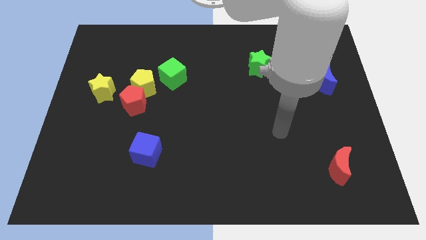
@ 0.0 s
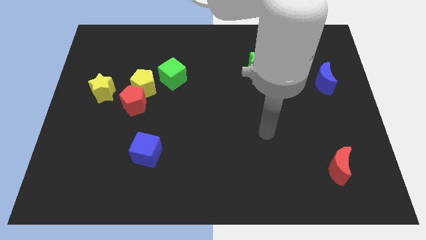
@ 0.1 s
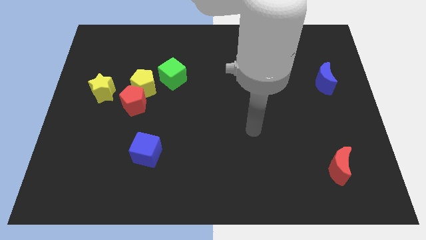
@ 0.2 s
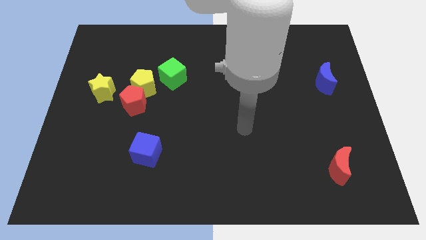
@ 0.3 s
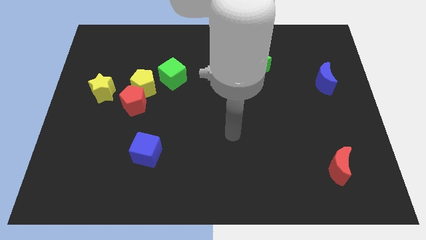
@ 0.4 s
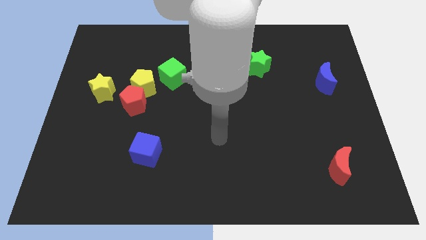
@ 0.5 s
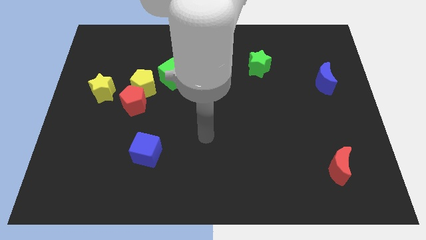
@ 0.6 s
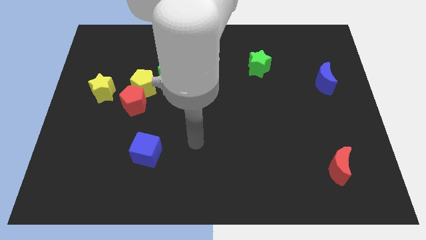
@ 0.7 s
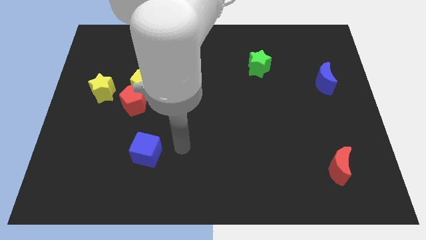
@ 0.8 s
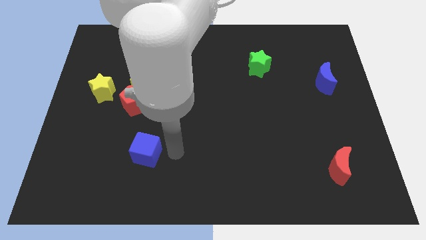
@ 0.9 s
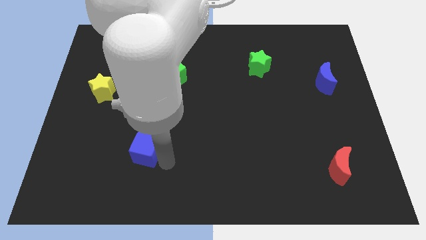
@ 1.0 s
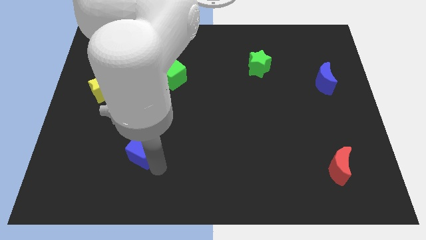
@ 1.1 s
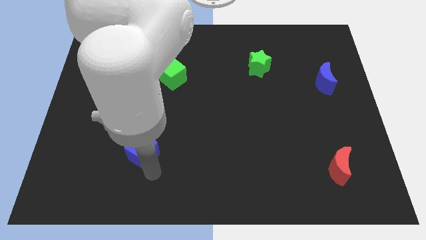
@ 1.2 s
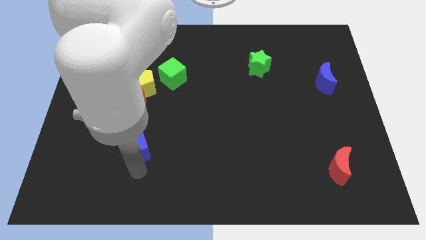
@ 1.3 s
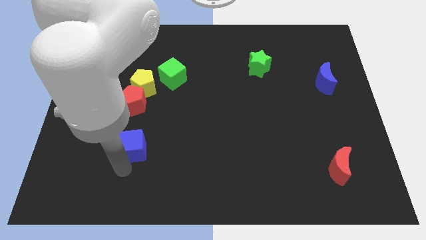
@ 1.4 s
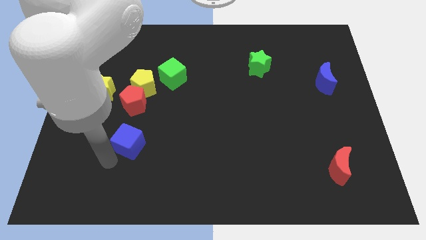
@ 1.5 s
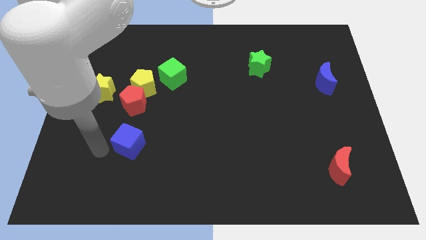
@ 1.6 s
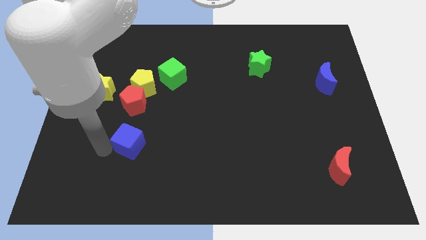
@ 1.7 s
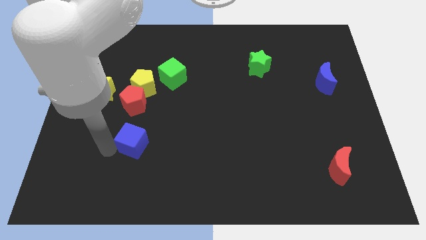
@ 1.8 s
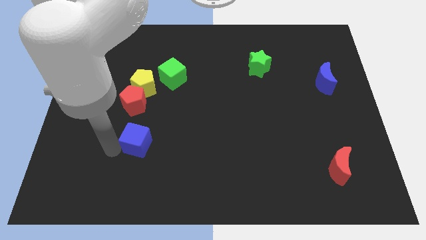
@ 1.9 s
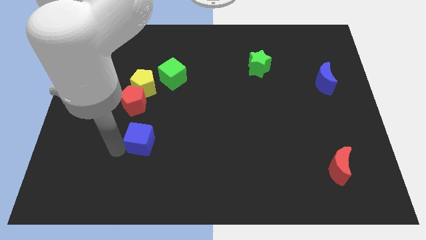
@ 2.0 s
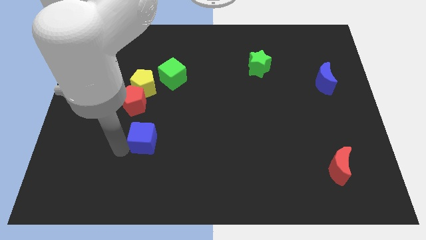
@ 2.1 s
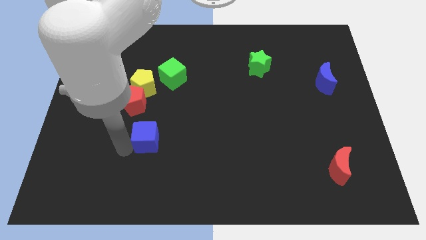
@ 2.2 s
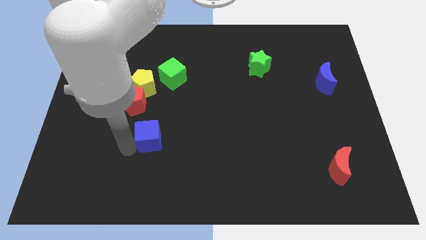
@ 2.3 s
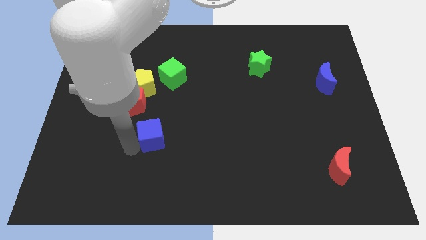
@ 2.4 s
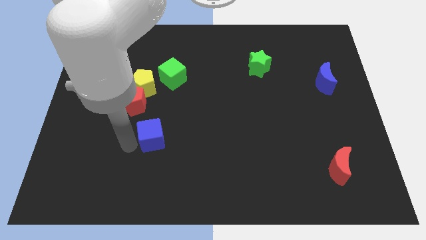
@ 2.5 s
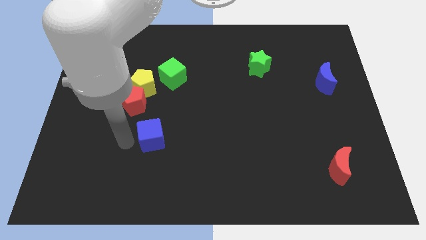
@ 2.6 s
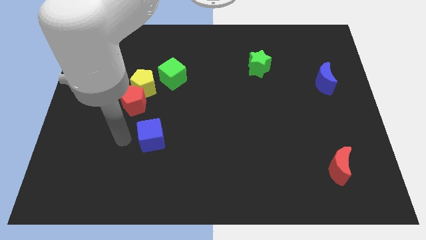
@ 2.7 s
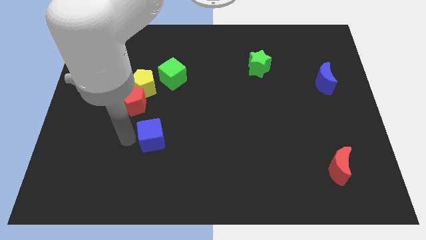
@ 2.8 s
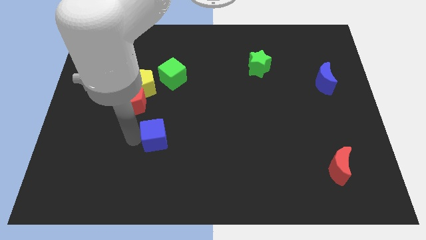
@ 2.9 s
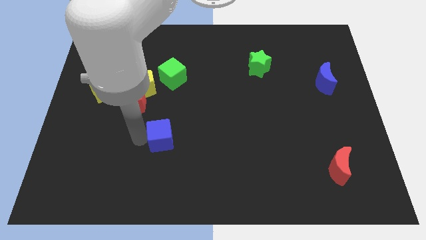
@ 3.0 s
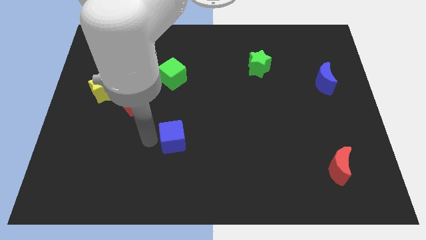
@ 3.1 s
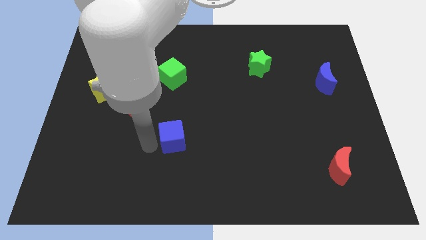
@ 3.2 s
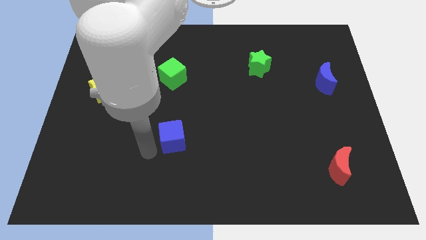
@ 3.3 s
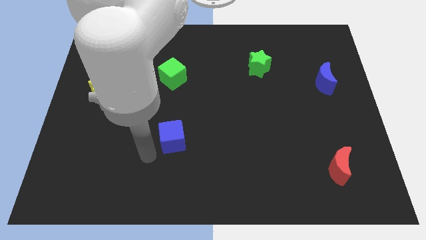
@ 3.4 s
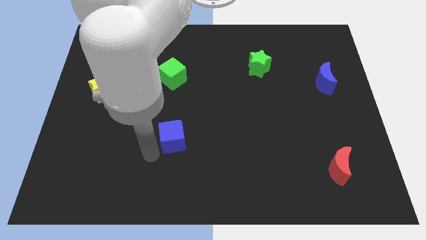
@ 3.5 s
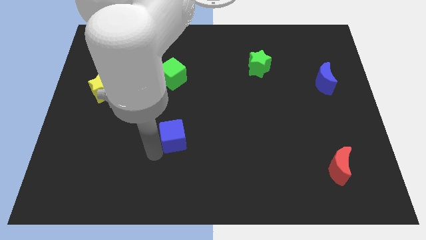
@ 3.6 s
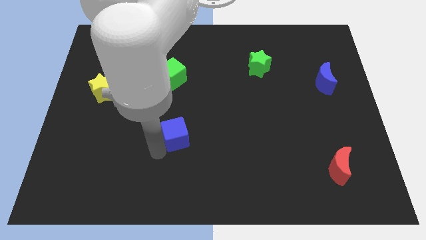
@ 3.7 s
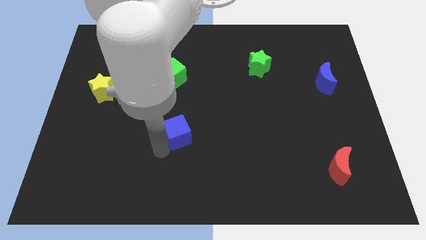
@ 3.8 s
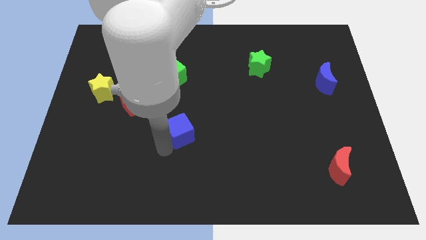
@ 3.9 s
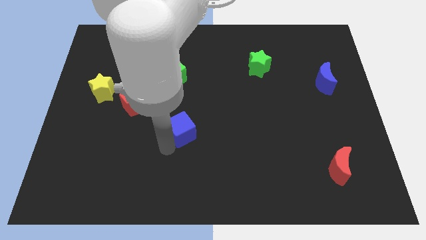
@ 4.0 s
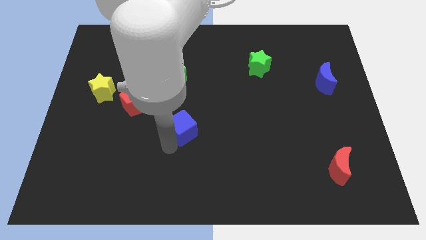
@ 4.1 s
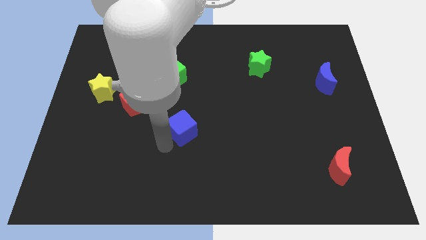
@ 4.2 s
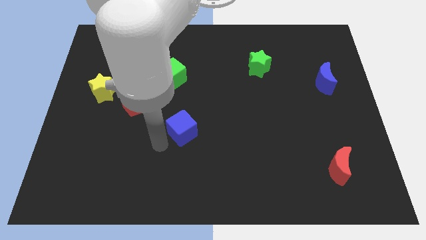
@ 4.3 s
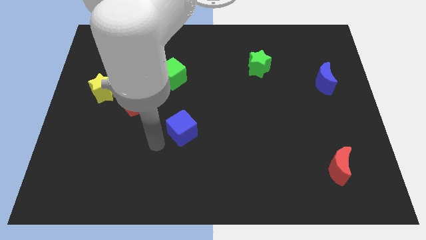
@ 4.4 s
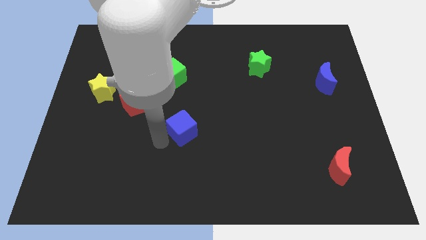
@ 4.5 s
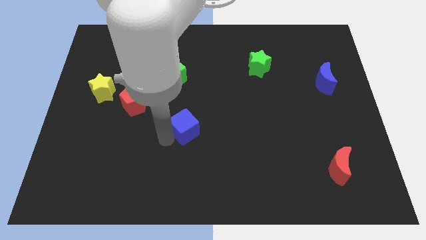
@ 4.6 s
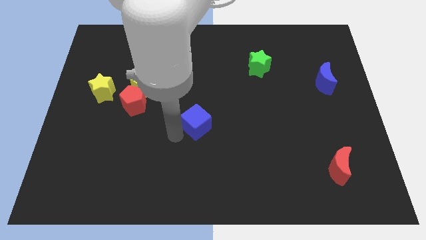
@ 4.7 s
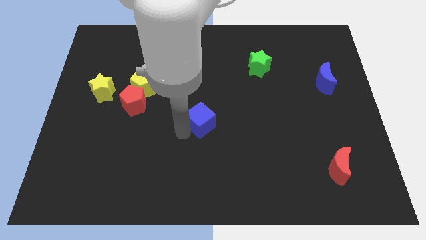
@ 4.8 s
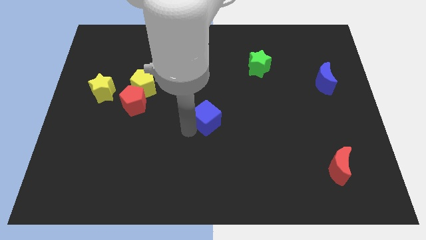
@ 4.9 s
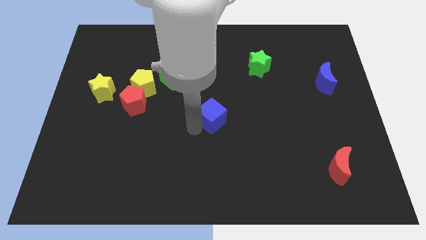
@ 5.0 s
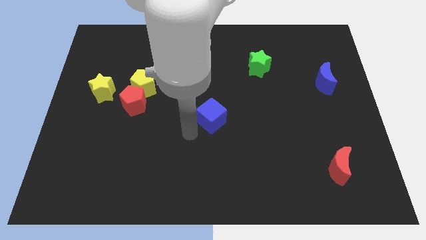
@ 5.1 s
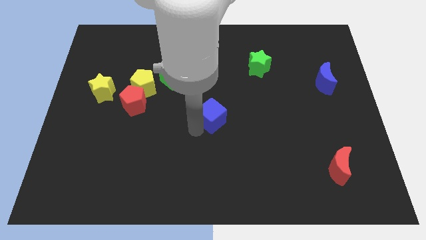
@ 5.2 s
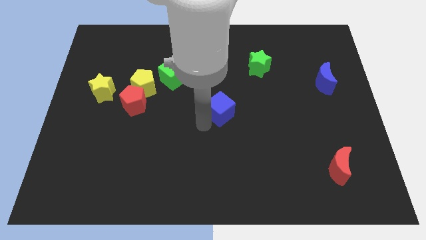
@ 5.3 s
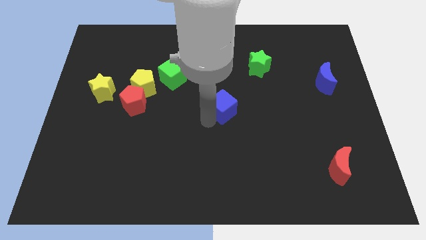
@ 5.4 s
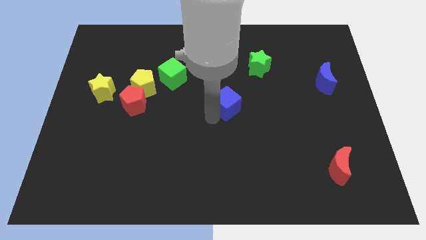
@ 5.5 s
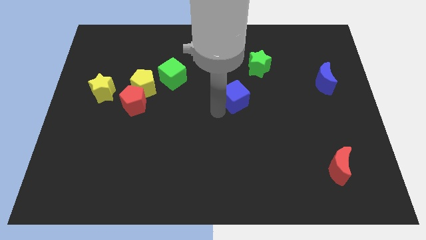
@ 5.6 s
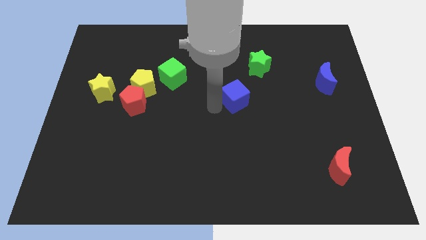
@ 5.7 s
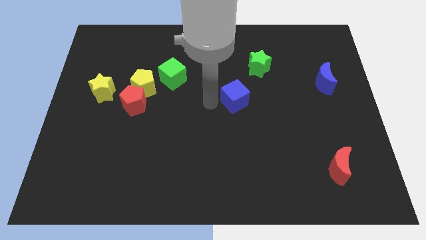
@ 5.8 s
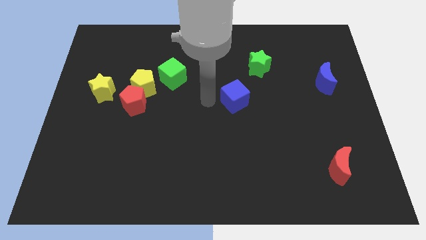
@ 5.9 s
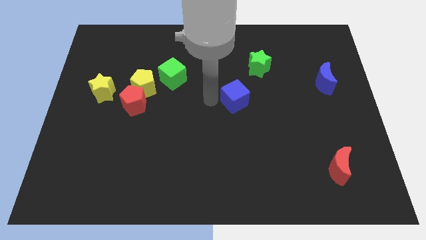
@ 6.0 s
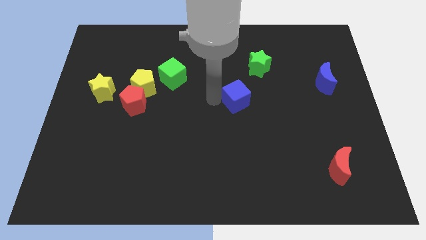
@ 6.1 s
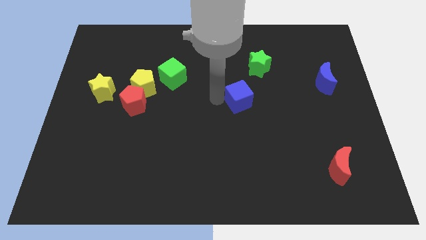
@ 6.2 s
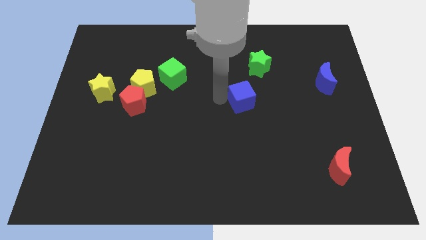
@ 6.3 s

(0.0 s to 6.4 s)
move the blue cube to the bottom of the green star

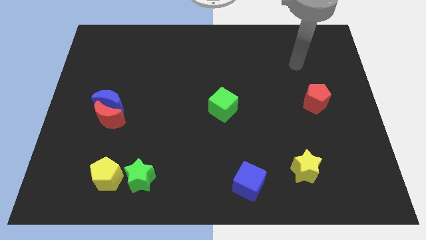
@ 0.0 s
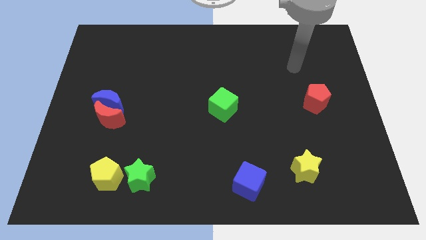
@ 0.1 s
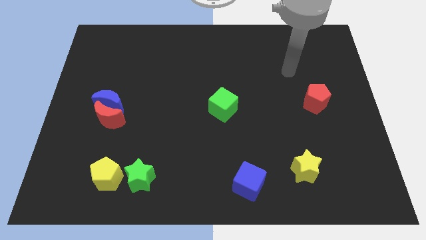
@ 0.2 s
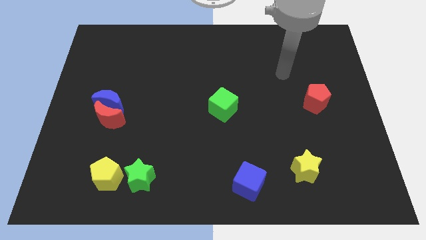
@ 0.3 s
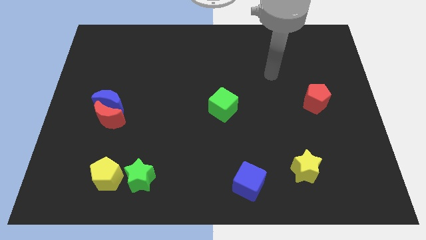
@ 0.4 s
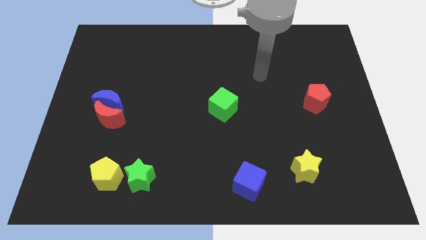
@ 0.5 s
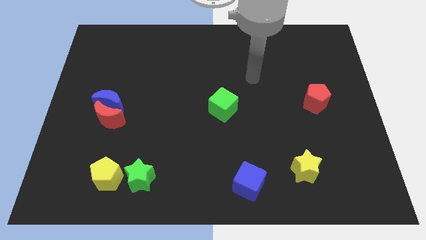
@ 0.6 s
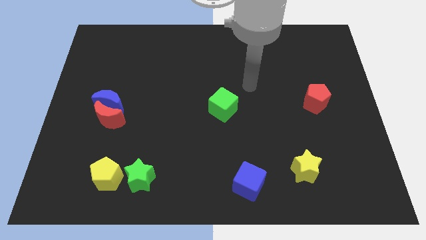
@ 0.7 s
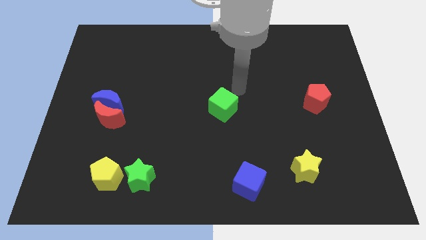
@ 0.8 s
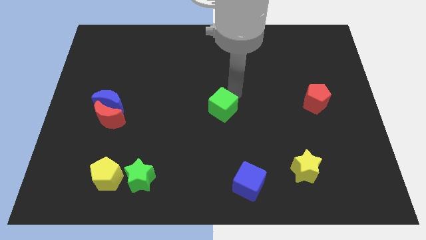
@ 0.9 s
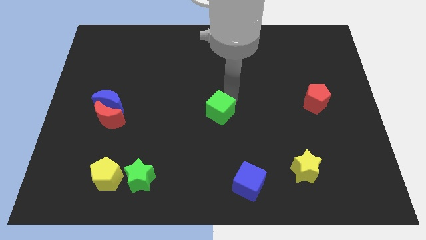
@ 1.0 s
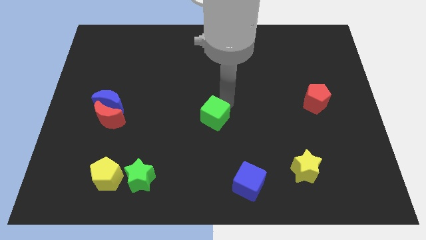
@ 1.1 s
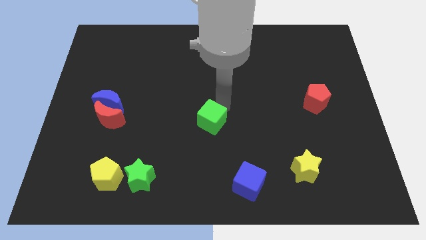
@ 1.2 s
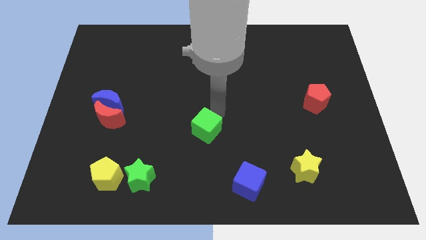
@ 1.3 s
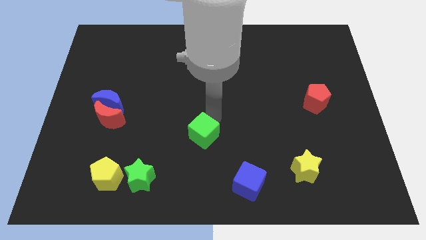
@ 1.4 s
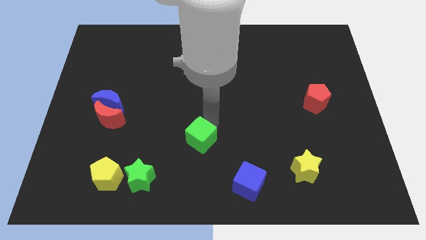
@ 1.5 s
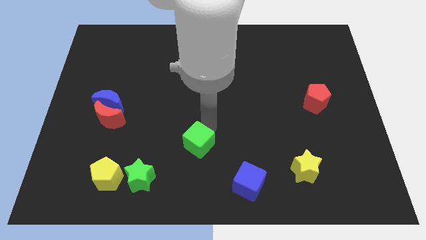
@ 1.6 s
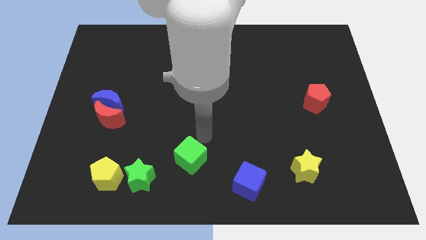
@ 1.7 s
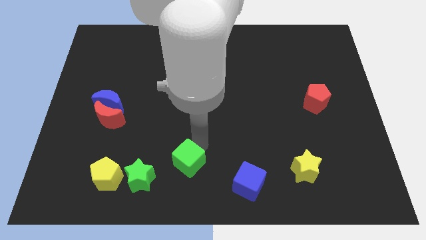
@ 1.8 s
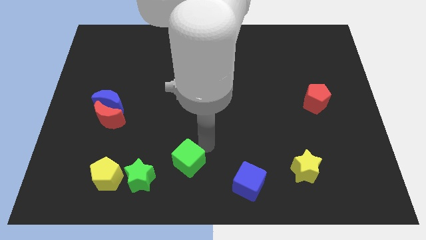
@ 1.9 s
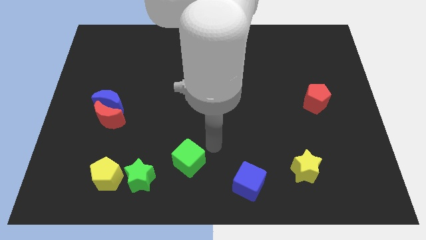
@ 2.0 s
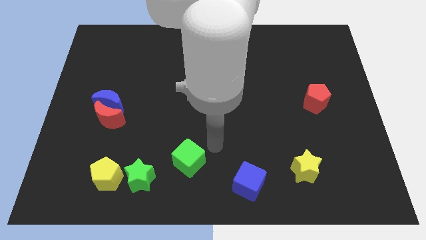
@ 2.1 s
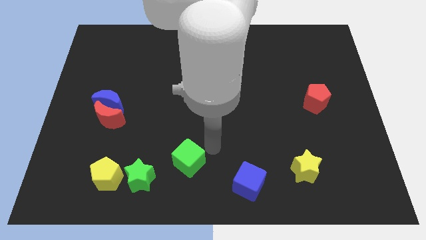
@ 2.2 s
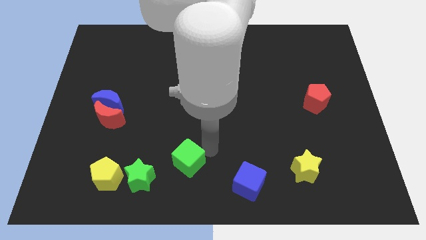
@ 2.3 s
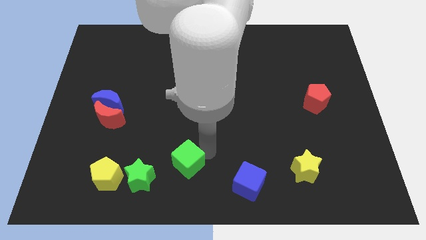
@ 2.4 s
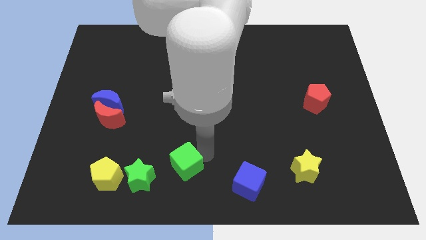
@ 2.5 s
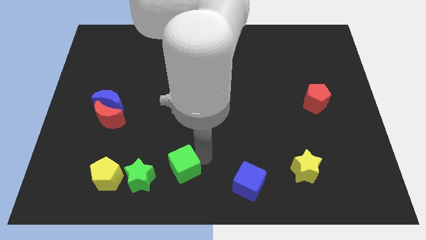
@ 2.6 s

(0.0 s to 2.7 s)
move the green cube right of the yellow pentagon
